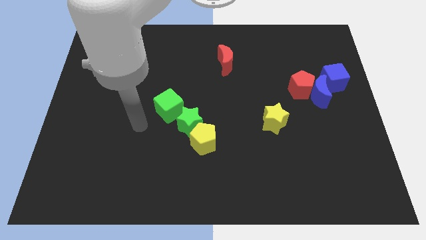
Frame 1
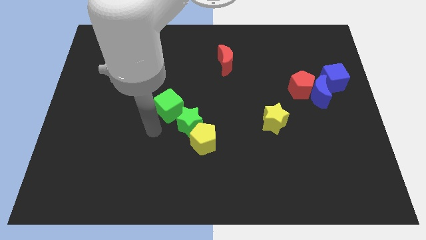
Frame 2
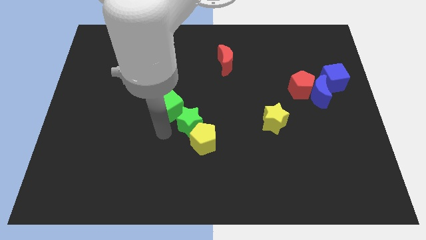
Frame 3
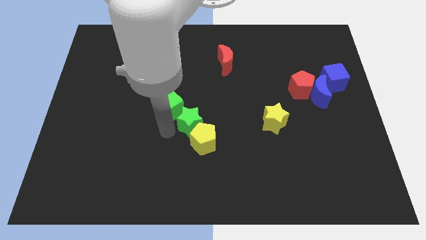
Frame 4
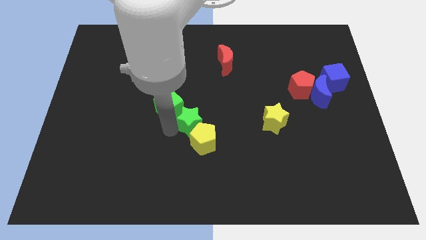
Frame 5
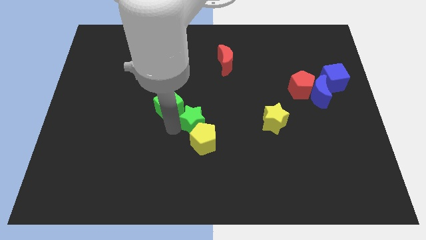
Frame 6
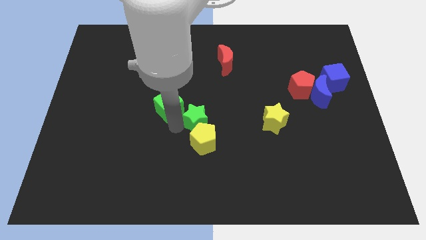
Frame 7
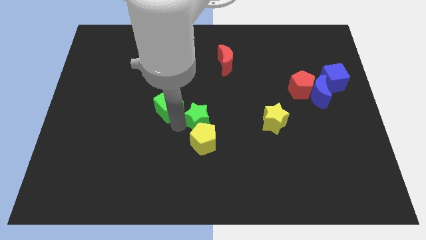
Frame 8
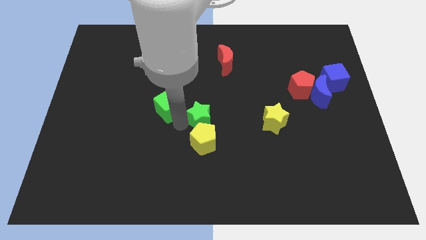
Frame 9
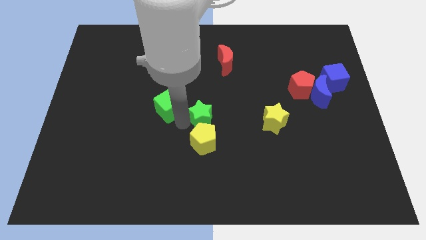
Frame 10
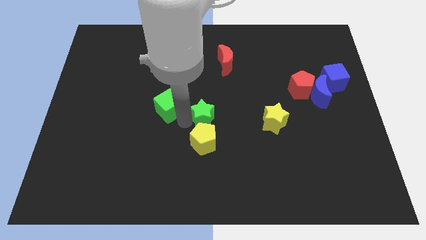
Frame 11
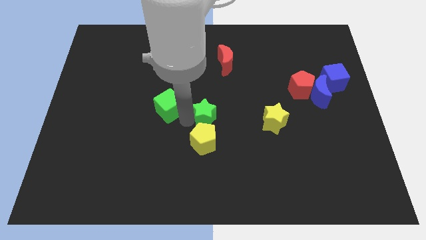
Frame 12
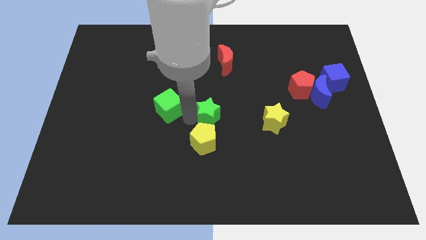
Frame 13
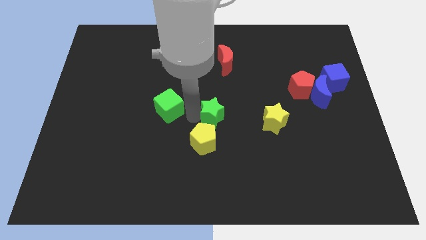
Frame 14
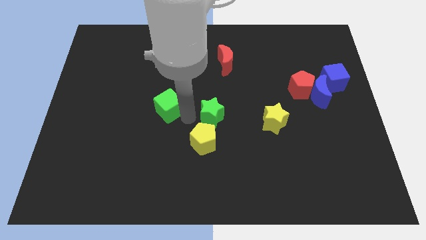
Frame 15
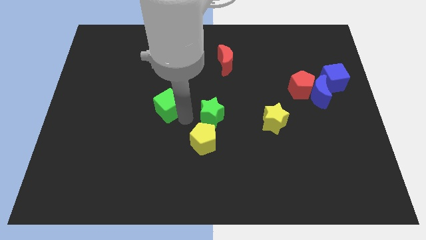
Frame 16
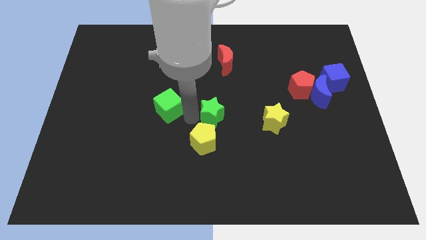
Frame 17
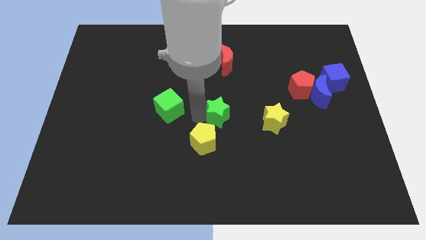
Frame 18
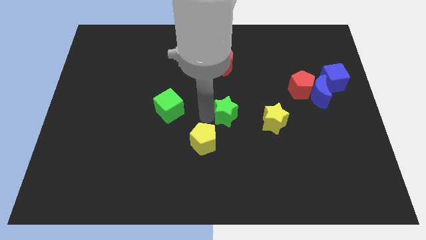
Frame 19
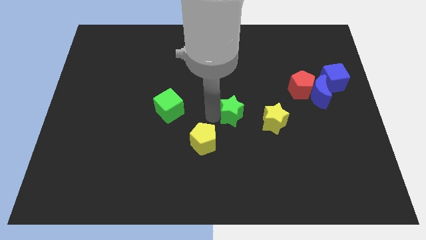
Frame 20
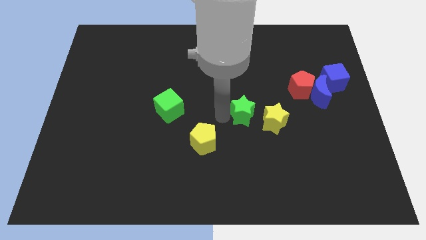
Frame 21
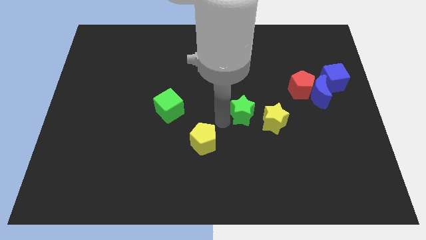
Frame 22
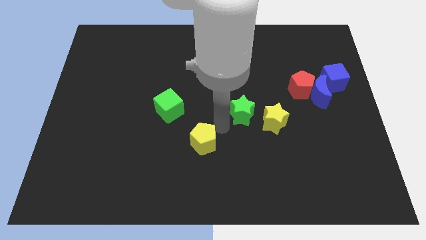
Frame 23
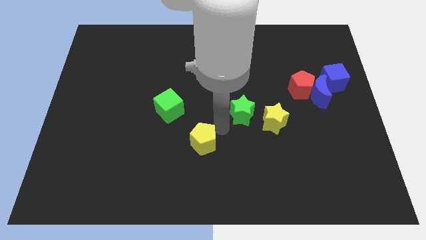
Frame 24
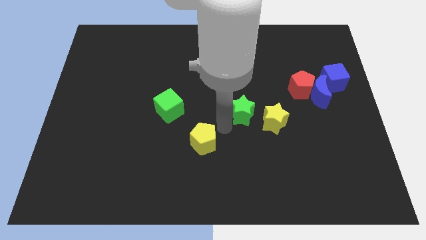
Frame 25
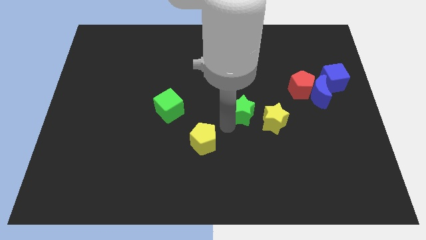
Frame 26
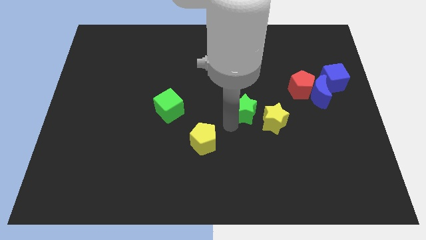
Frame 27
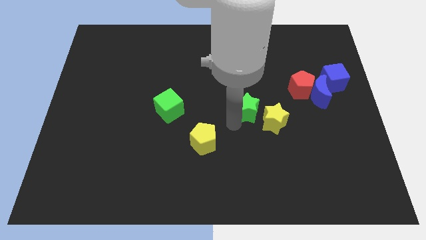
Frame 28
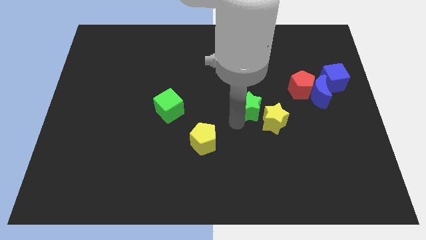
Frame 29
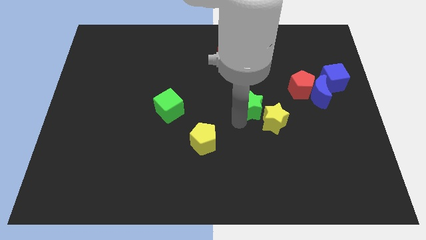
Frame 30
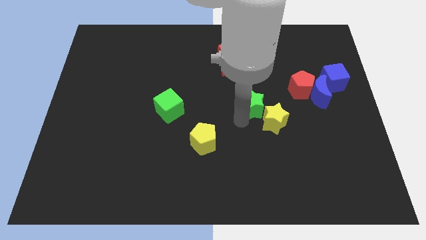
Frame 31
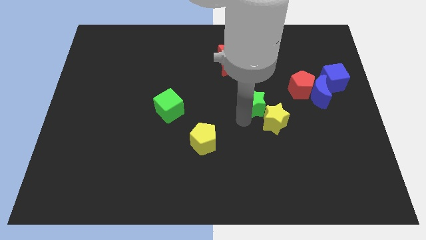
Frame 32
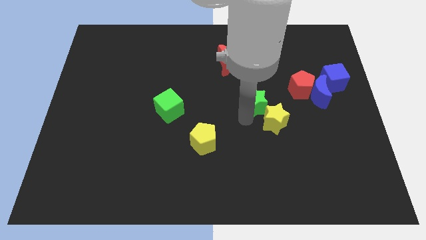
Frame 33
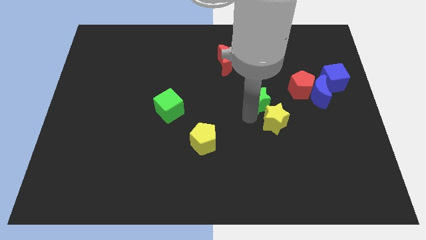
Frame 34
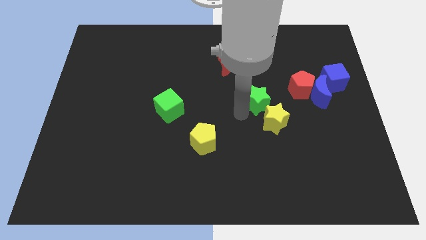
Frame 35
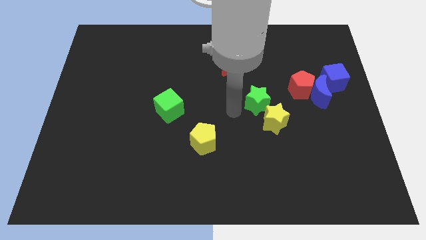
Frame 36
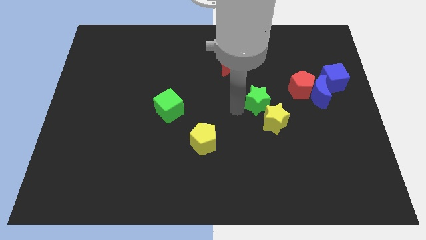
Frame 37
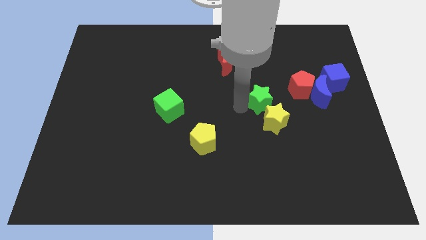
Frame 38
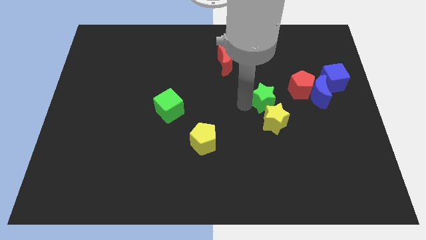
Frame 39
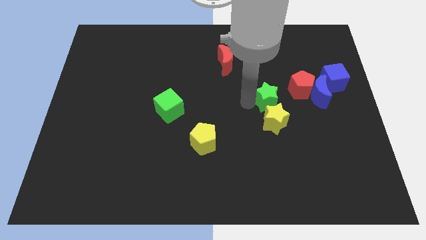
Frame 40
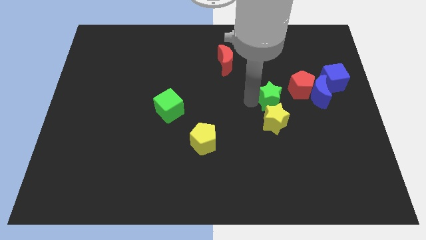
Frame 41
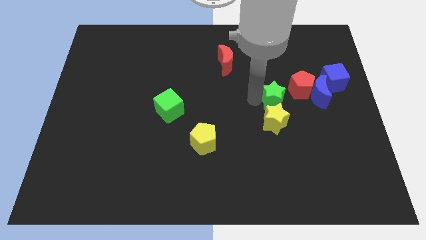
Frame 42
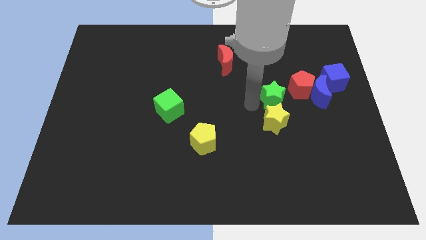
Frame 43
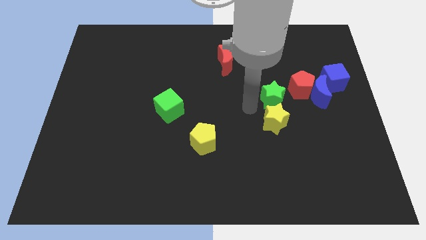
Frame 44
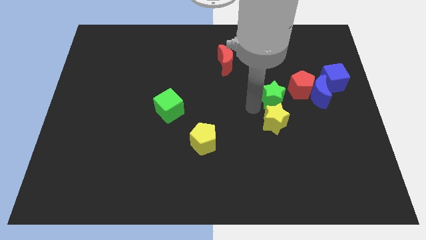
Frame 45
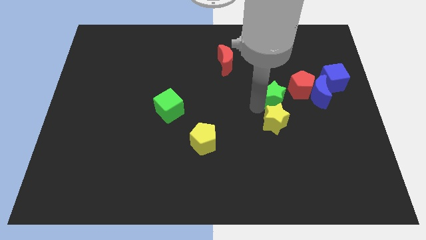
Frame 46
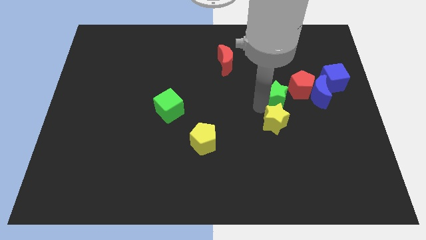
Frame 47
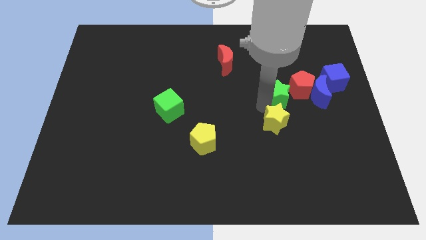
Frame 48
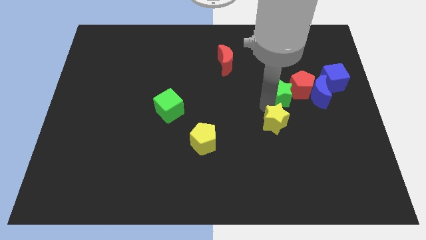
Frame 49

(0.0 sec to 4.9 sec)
move the green star next to the red pentagon

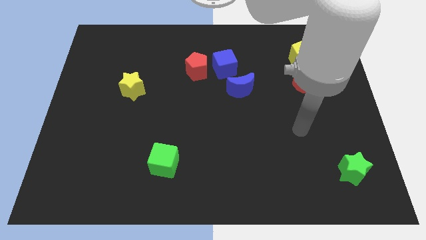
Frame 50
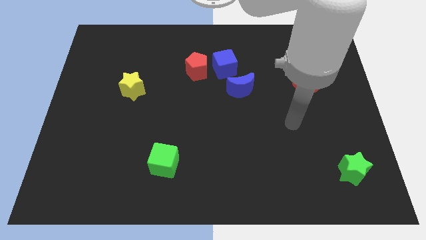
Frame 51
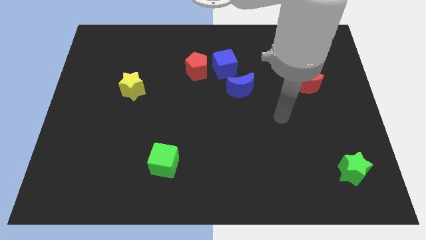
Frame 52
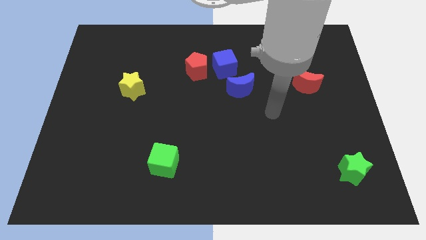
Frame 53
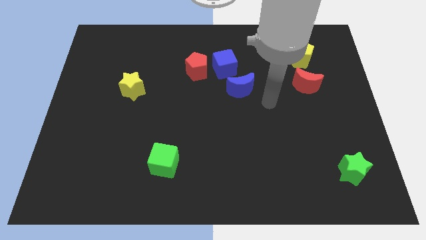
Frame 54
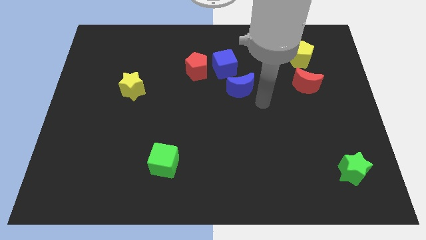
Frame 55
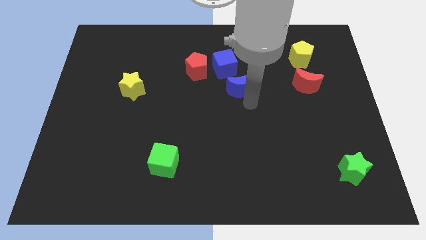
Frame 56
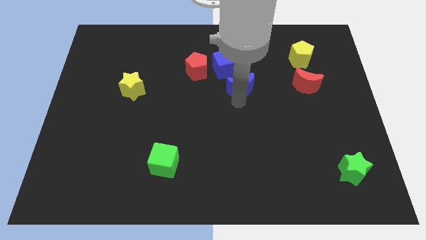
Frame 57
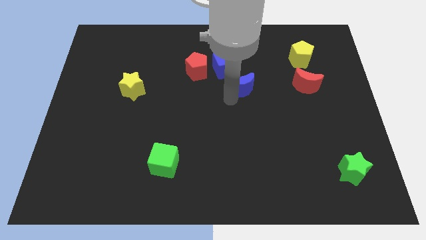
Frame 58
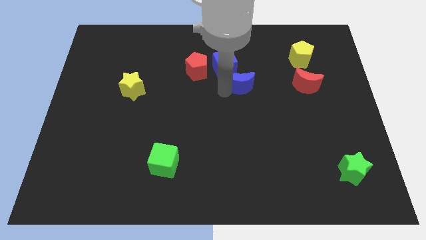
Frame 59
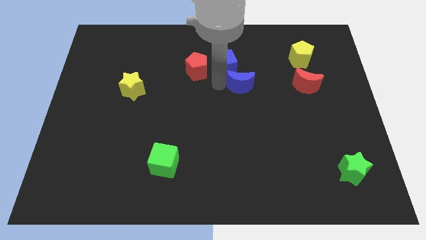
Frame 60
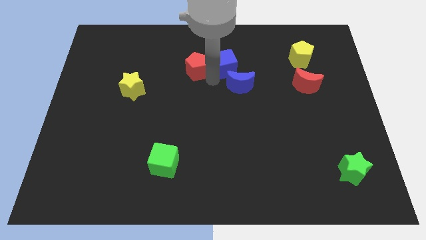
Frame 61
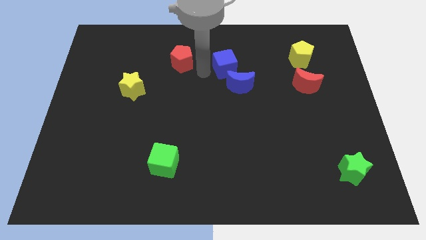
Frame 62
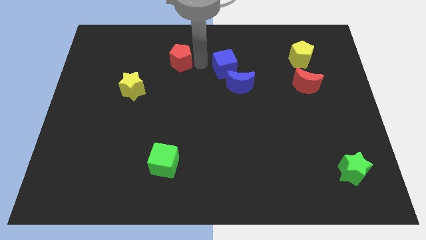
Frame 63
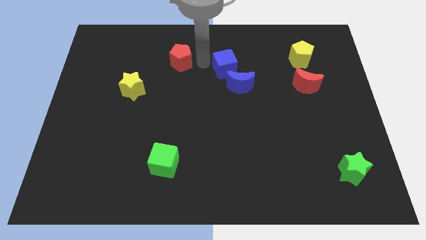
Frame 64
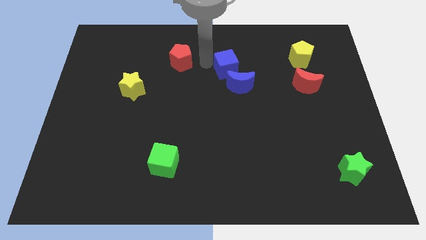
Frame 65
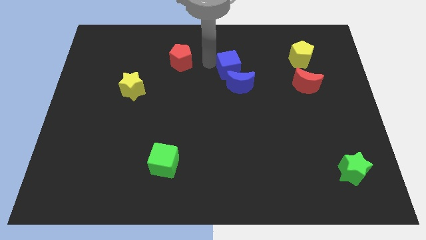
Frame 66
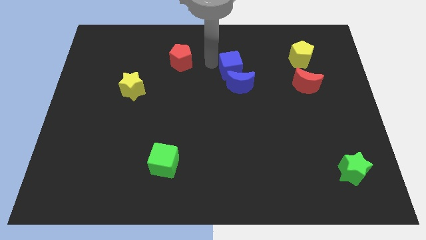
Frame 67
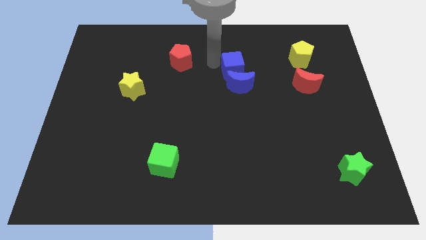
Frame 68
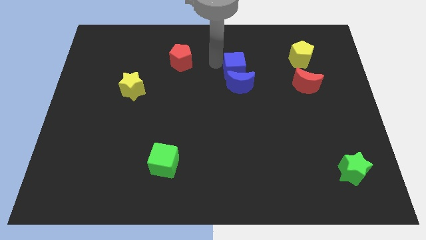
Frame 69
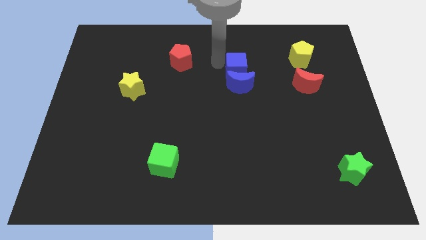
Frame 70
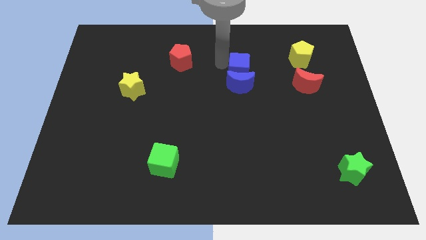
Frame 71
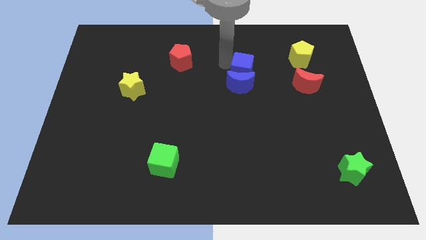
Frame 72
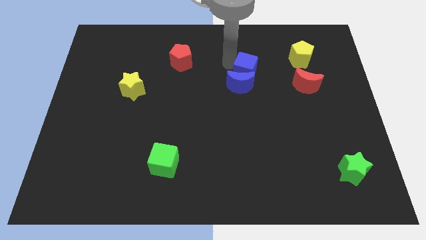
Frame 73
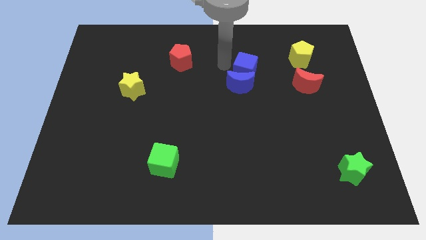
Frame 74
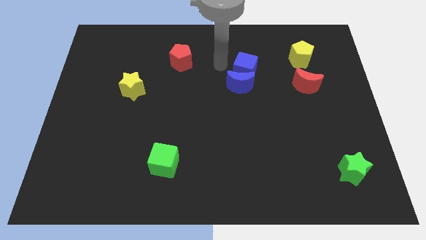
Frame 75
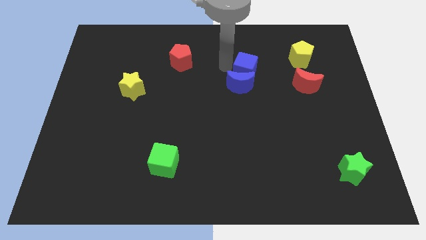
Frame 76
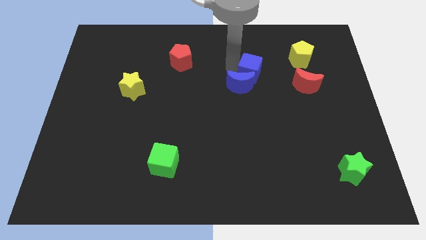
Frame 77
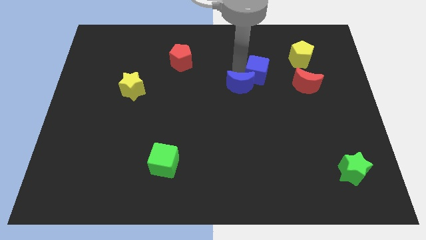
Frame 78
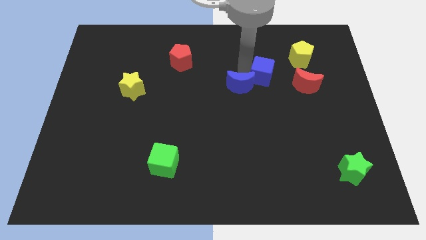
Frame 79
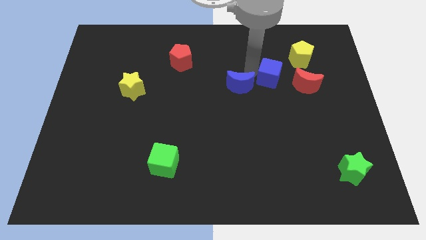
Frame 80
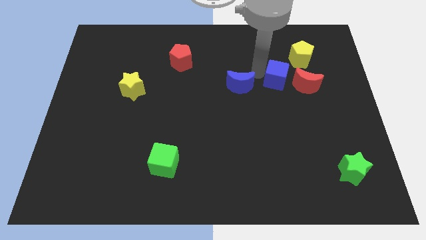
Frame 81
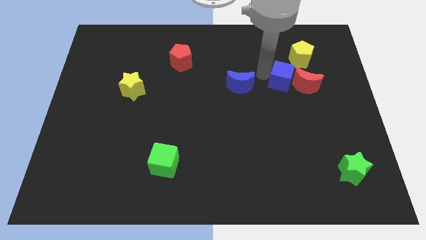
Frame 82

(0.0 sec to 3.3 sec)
push the blue cube towards the red moon
